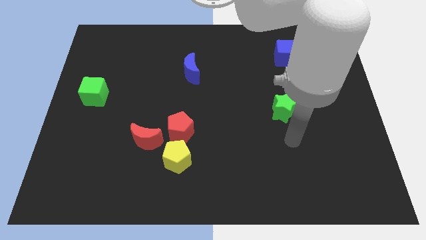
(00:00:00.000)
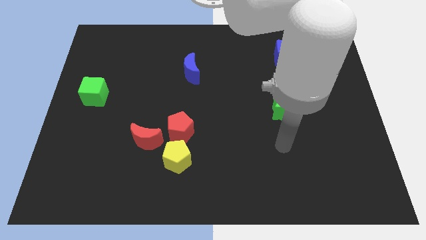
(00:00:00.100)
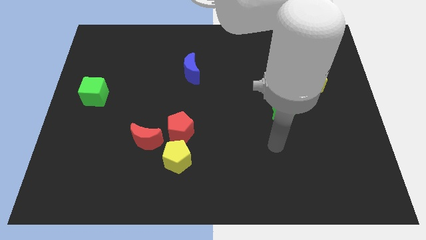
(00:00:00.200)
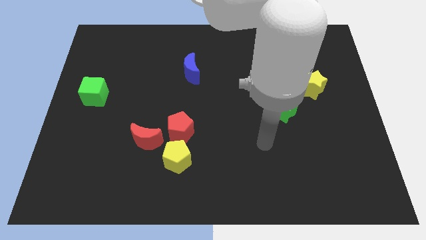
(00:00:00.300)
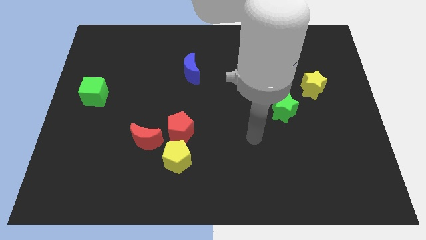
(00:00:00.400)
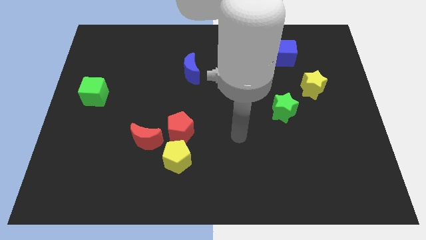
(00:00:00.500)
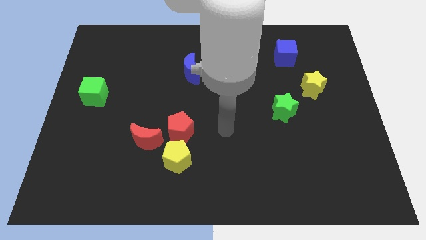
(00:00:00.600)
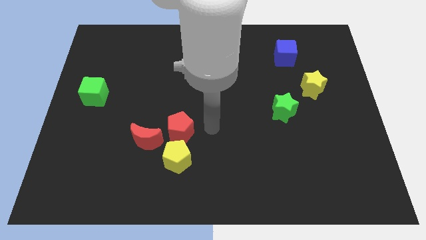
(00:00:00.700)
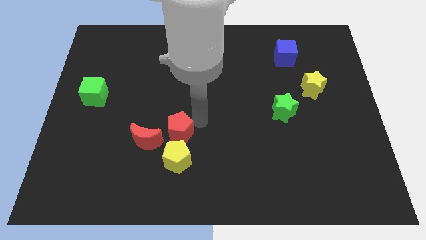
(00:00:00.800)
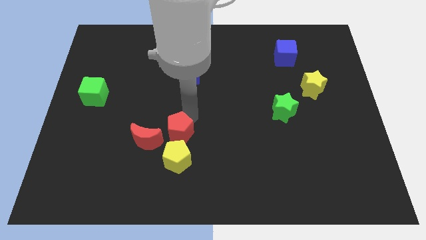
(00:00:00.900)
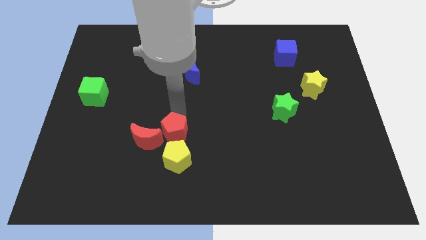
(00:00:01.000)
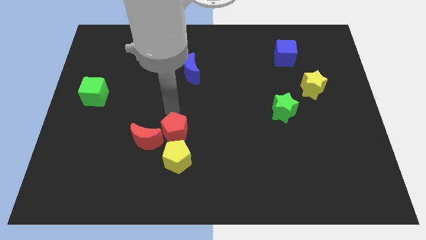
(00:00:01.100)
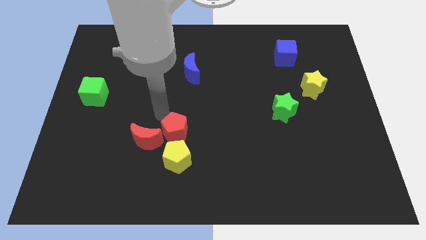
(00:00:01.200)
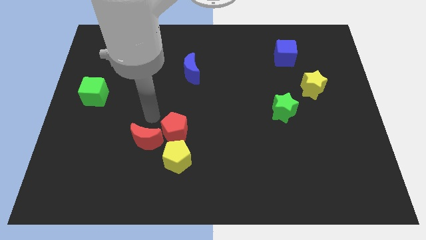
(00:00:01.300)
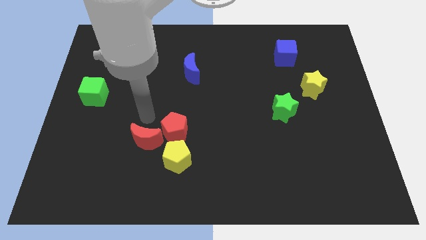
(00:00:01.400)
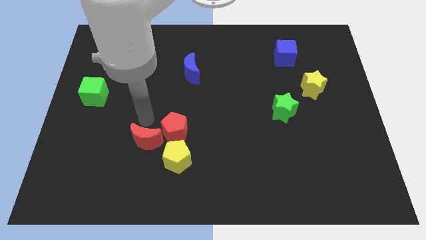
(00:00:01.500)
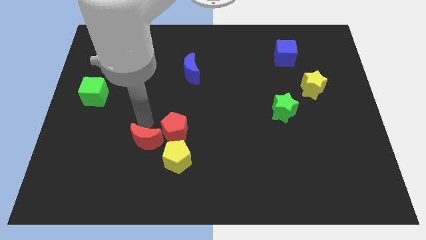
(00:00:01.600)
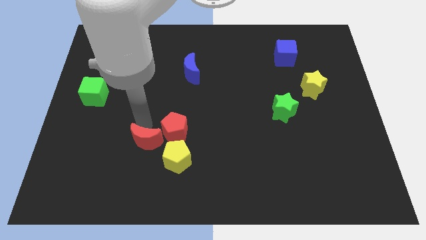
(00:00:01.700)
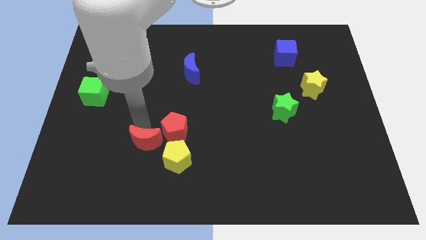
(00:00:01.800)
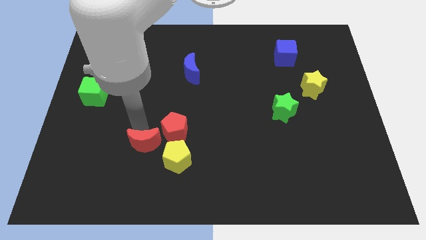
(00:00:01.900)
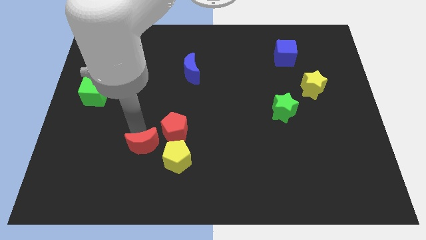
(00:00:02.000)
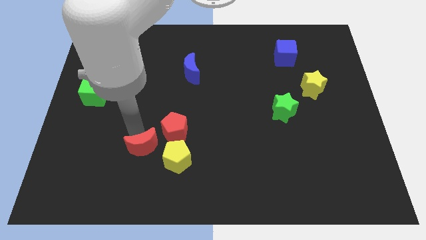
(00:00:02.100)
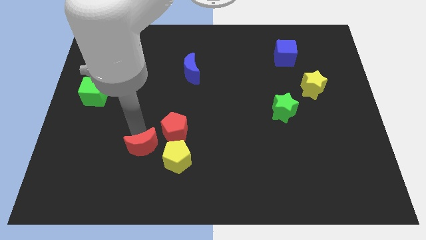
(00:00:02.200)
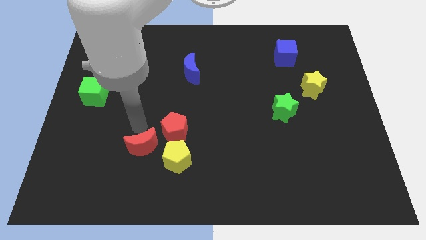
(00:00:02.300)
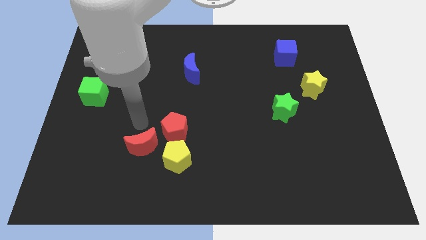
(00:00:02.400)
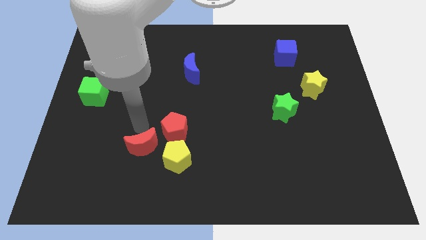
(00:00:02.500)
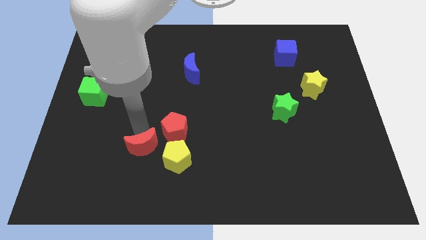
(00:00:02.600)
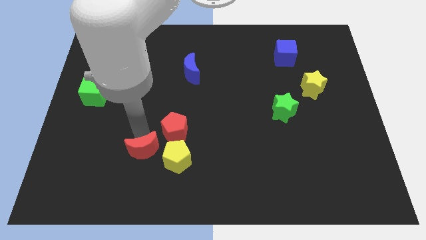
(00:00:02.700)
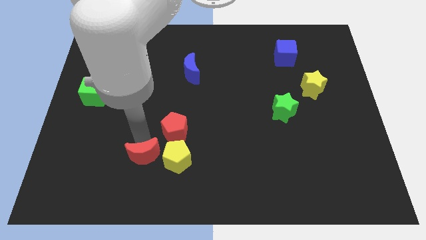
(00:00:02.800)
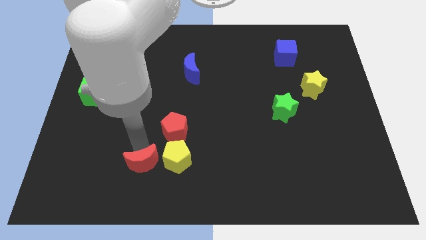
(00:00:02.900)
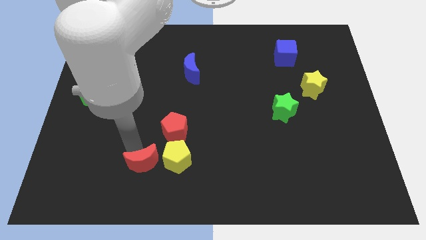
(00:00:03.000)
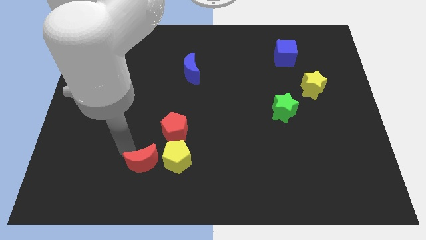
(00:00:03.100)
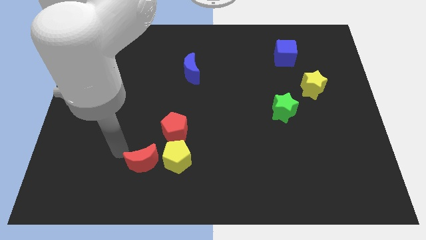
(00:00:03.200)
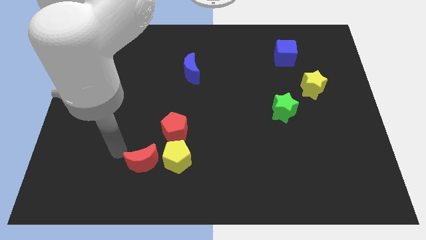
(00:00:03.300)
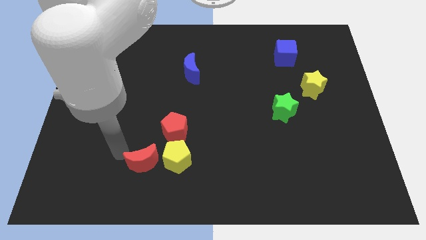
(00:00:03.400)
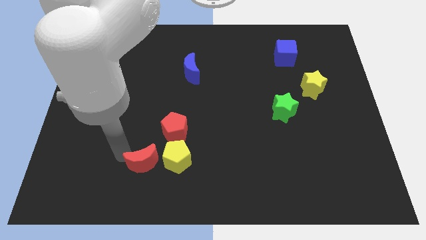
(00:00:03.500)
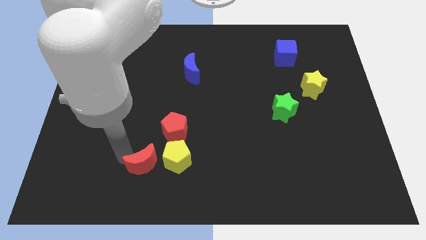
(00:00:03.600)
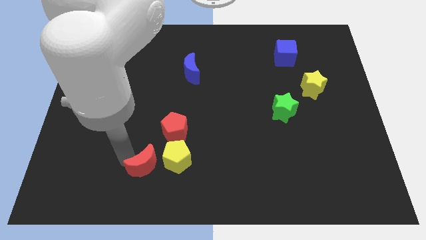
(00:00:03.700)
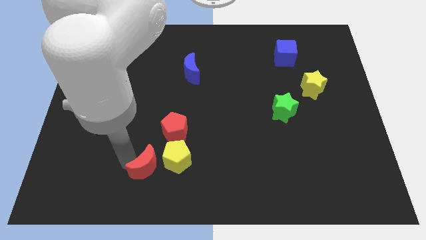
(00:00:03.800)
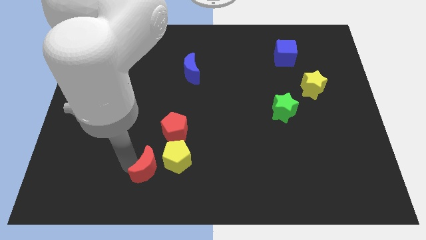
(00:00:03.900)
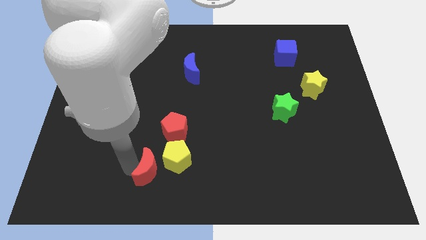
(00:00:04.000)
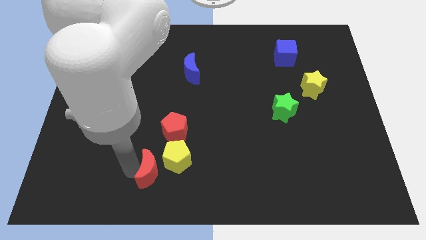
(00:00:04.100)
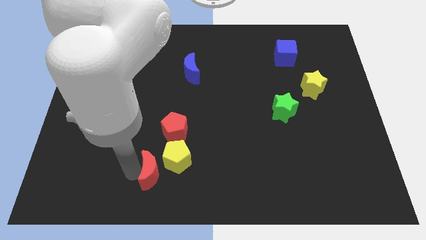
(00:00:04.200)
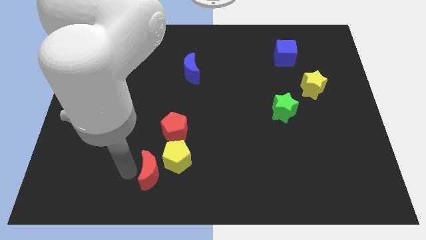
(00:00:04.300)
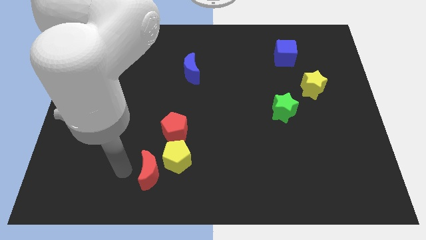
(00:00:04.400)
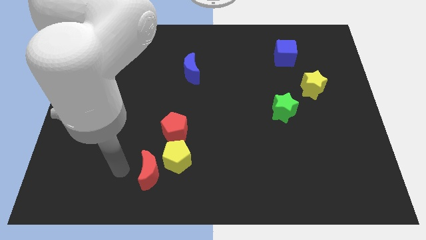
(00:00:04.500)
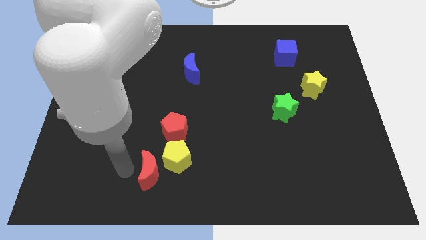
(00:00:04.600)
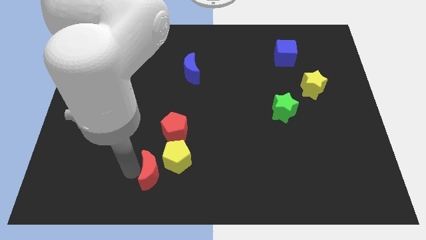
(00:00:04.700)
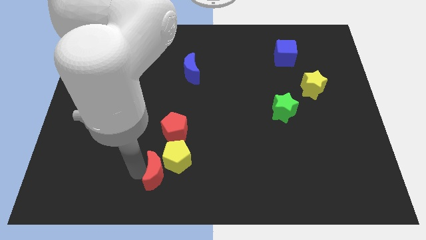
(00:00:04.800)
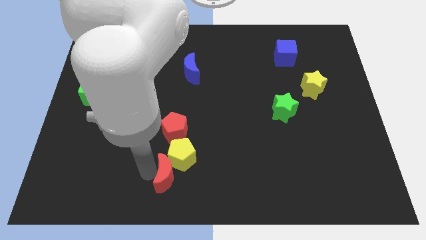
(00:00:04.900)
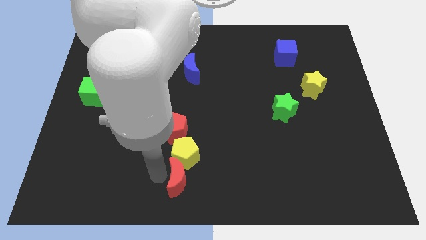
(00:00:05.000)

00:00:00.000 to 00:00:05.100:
put the red moon to the bottom right of the yellow pentagon

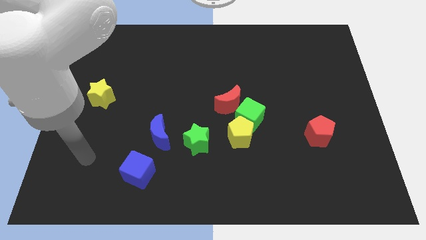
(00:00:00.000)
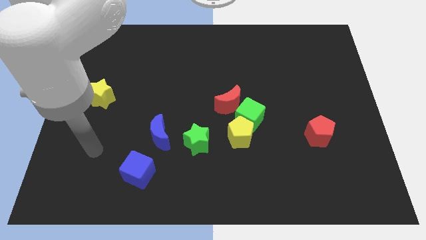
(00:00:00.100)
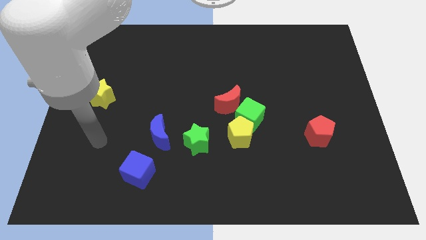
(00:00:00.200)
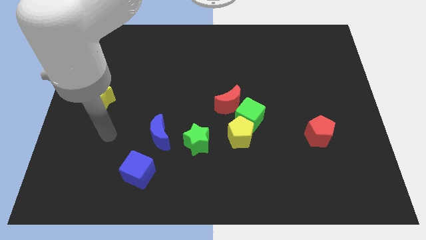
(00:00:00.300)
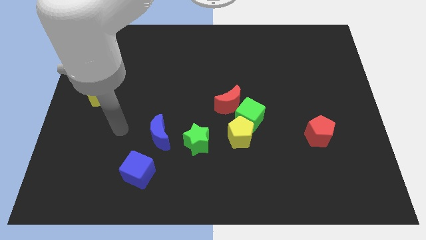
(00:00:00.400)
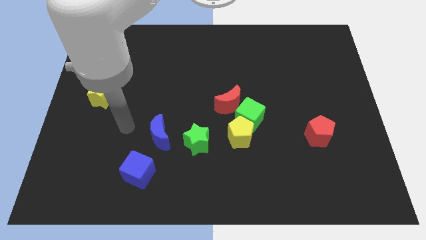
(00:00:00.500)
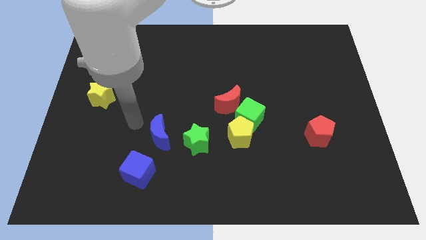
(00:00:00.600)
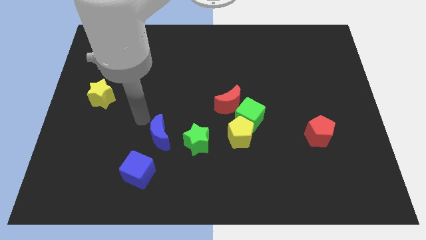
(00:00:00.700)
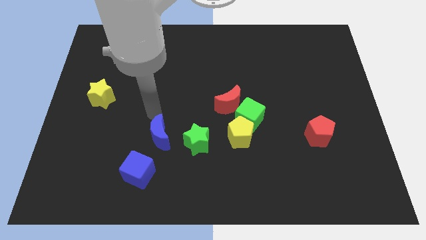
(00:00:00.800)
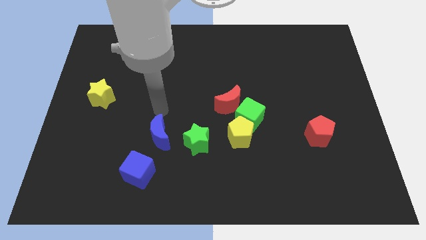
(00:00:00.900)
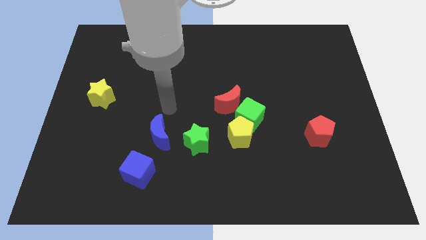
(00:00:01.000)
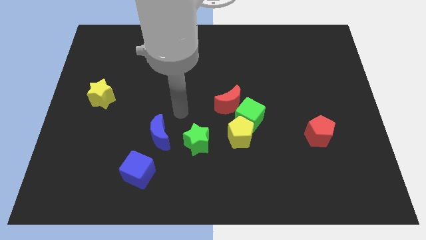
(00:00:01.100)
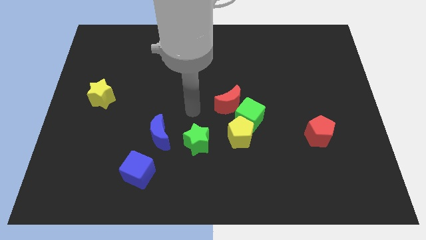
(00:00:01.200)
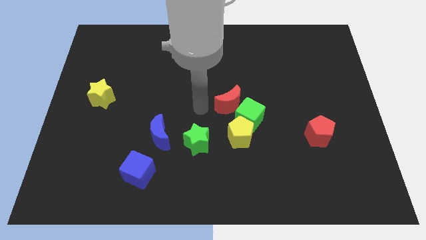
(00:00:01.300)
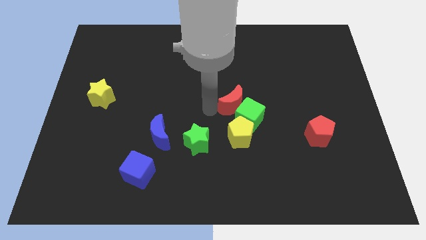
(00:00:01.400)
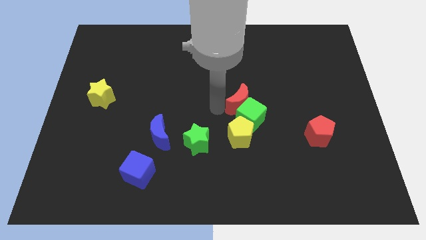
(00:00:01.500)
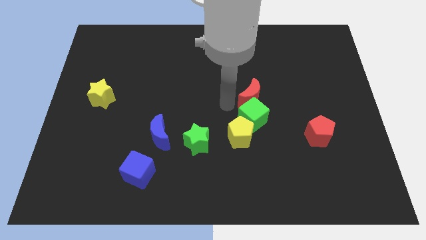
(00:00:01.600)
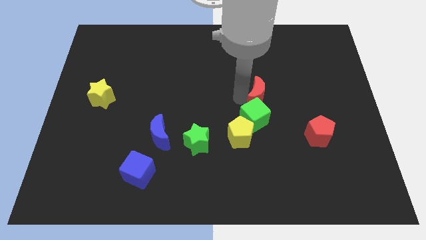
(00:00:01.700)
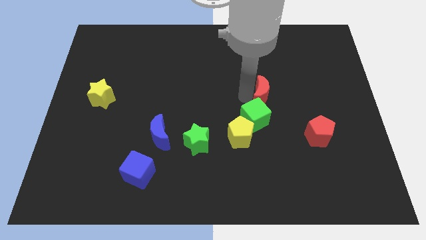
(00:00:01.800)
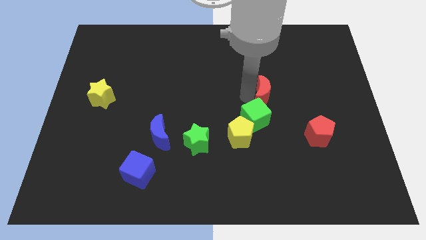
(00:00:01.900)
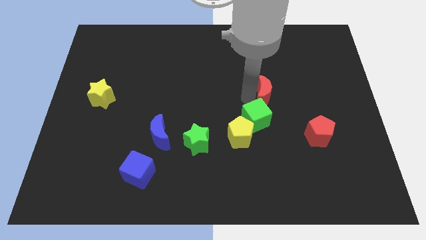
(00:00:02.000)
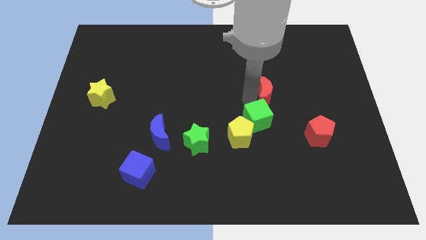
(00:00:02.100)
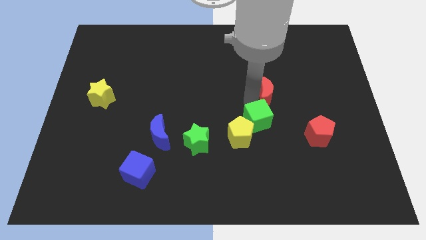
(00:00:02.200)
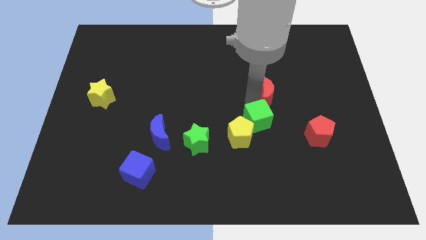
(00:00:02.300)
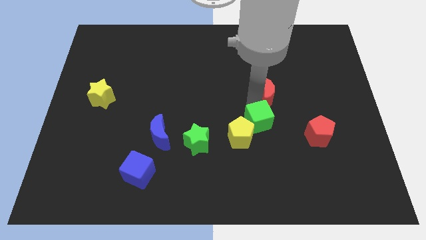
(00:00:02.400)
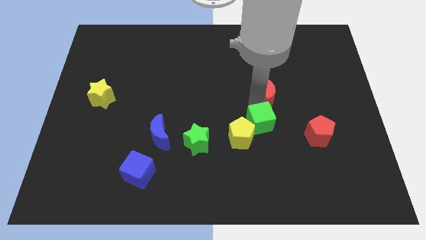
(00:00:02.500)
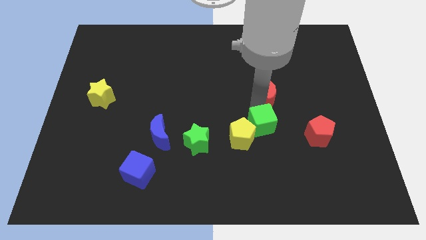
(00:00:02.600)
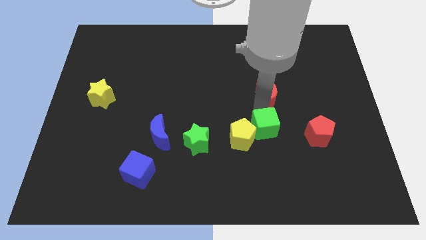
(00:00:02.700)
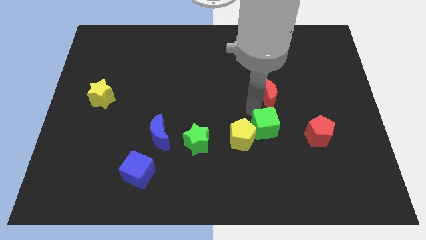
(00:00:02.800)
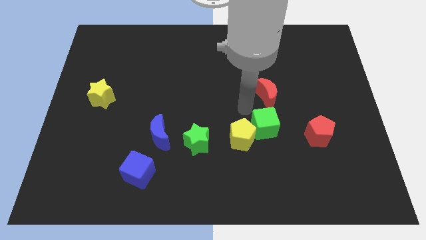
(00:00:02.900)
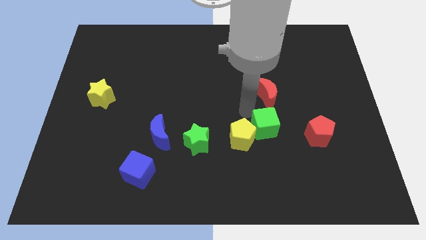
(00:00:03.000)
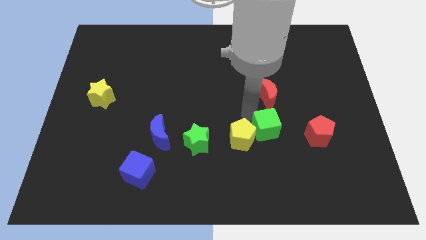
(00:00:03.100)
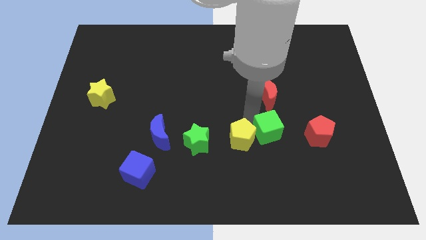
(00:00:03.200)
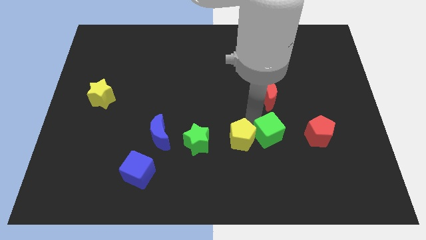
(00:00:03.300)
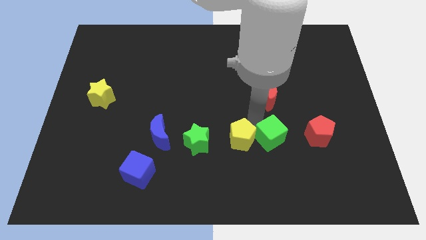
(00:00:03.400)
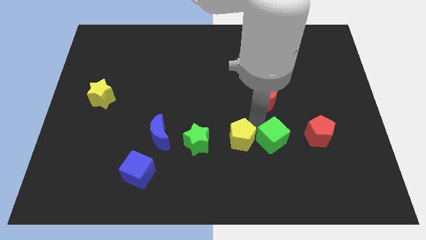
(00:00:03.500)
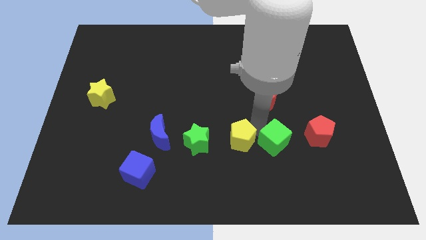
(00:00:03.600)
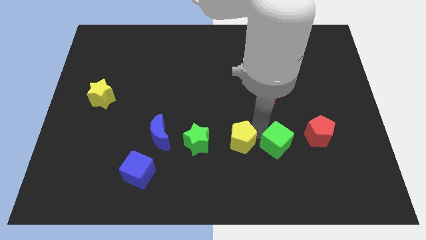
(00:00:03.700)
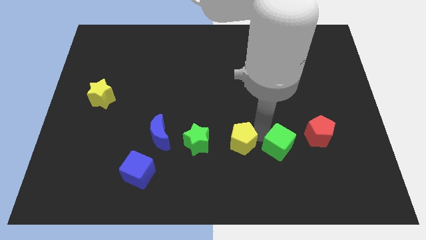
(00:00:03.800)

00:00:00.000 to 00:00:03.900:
push the green cube diagonally down and to the left of the red pentagon
